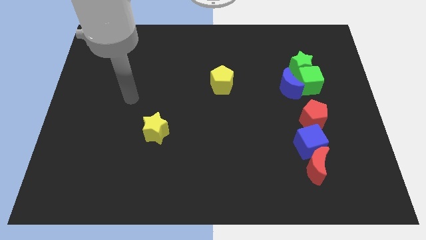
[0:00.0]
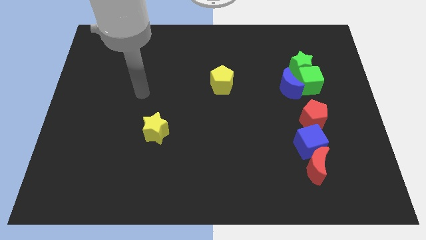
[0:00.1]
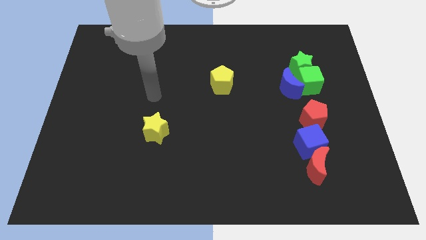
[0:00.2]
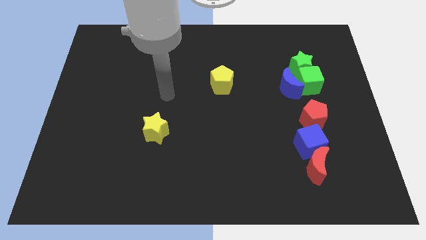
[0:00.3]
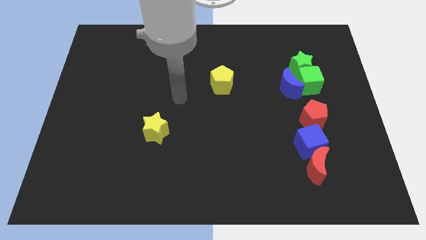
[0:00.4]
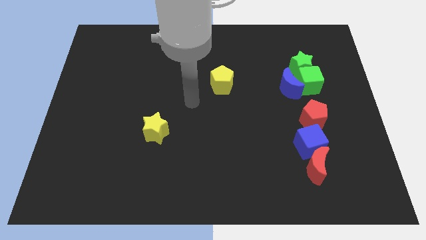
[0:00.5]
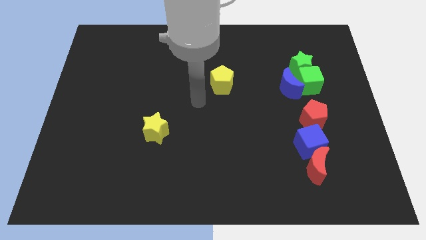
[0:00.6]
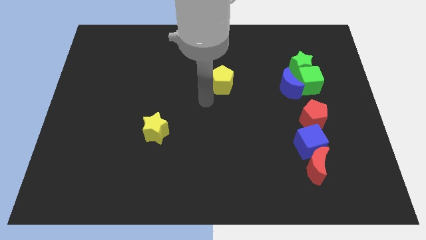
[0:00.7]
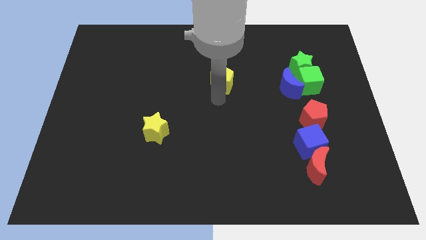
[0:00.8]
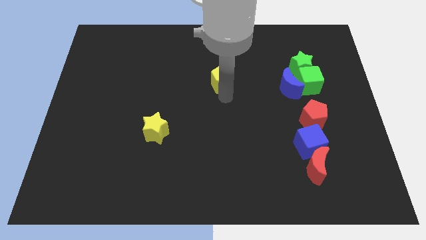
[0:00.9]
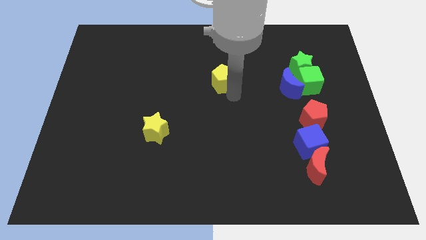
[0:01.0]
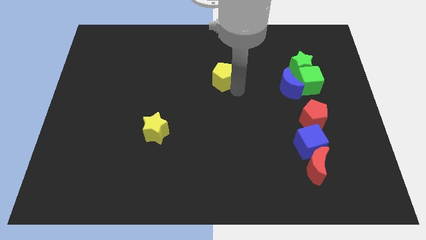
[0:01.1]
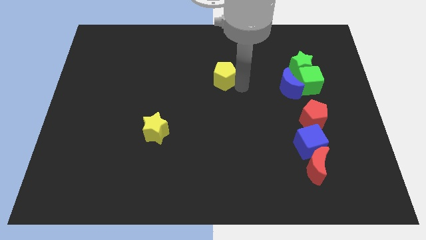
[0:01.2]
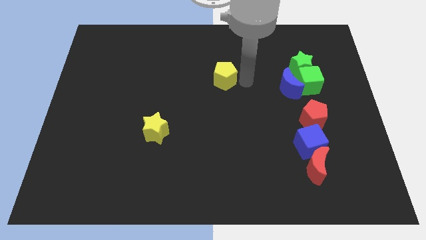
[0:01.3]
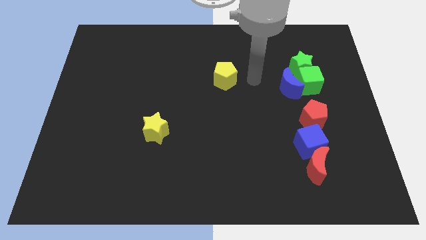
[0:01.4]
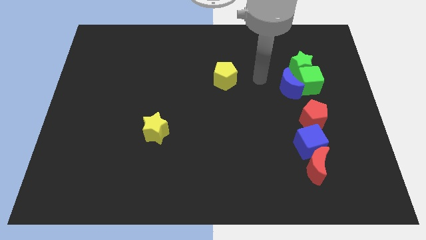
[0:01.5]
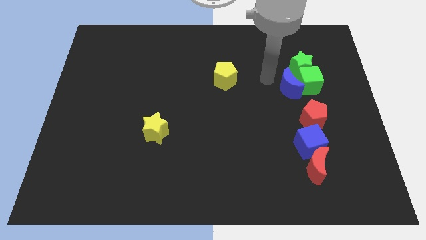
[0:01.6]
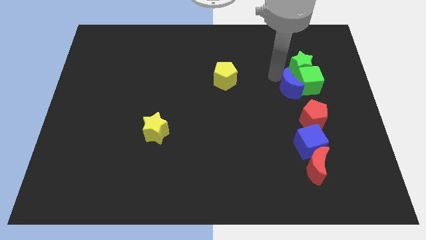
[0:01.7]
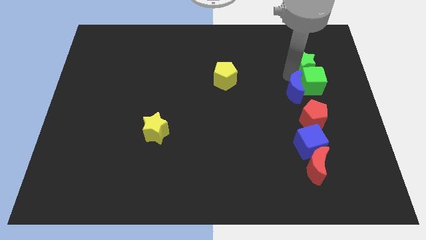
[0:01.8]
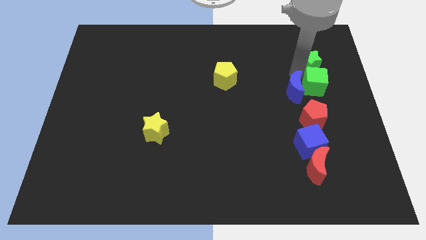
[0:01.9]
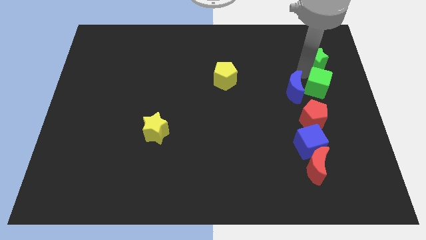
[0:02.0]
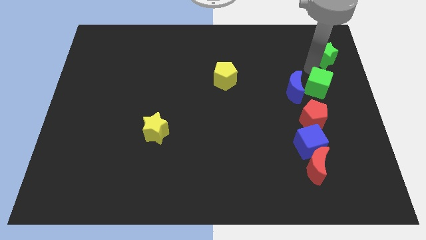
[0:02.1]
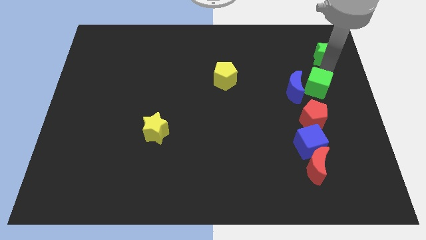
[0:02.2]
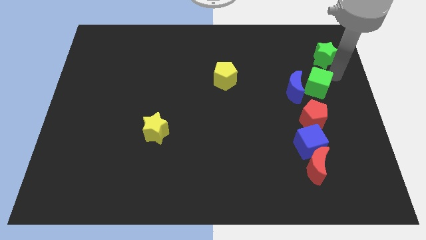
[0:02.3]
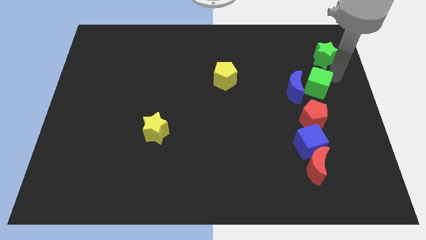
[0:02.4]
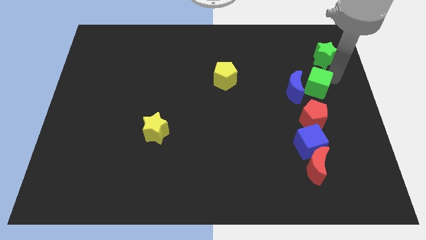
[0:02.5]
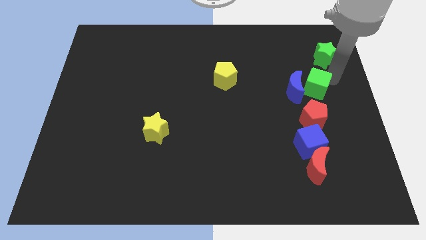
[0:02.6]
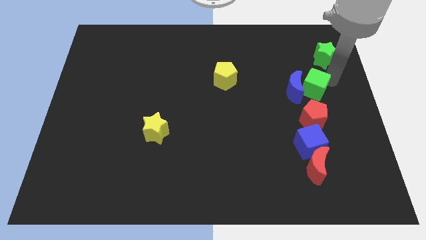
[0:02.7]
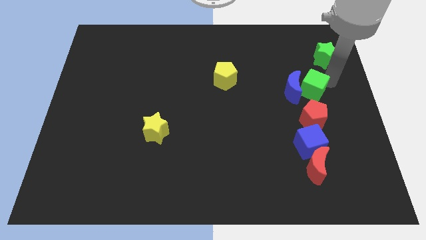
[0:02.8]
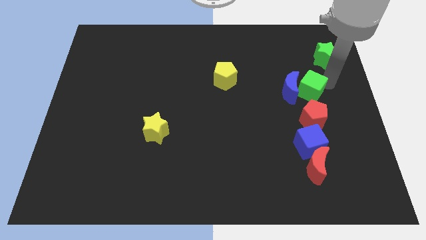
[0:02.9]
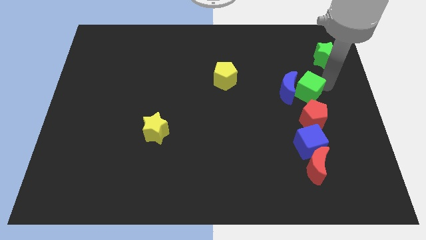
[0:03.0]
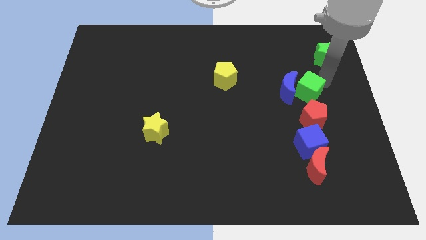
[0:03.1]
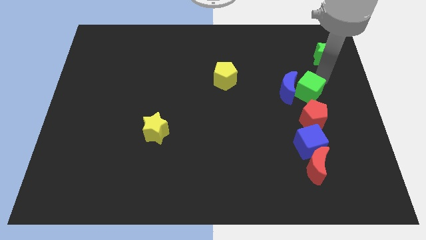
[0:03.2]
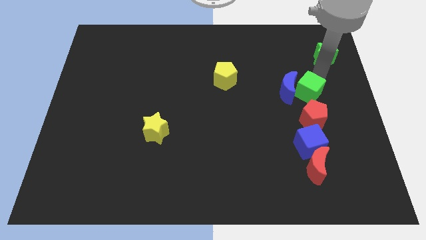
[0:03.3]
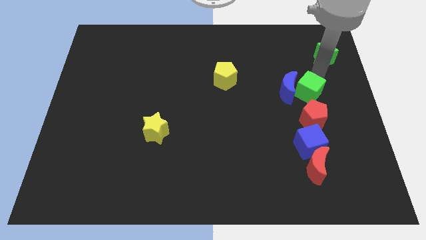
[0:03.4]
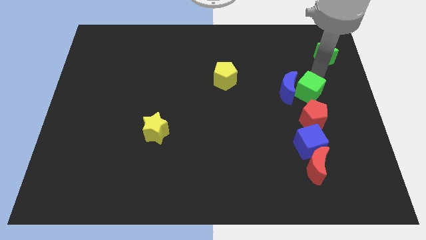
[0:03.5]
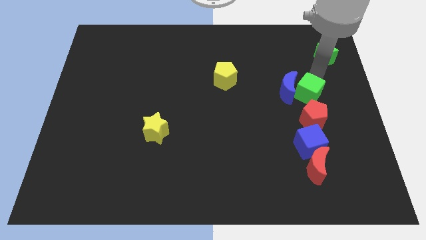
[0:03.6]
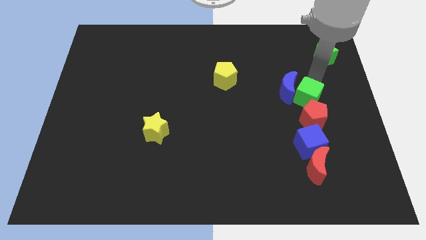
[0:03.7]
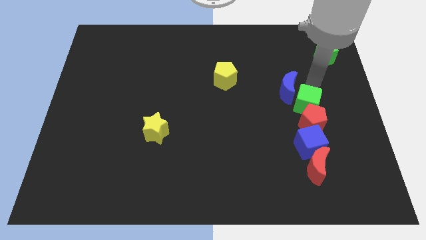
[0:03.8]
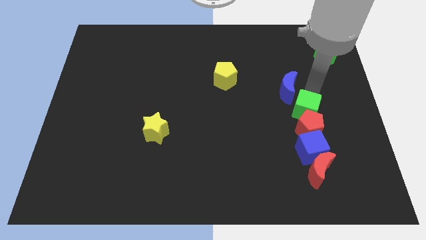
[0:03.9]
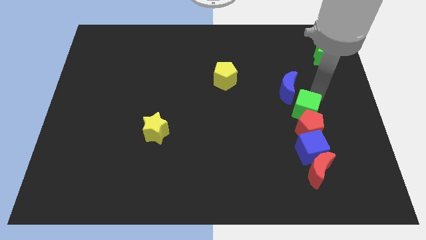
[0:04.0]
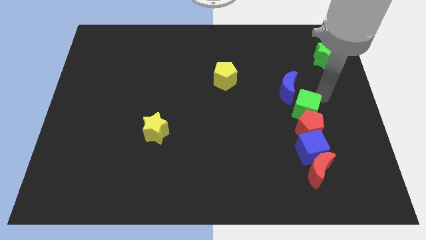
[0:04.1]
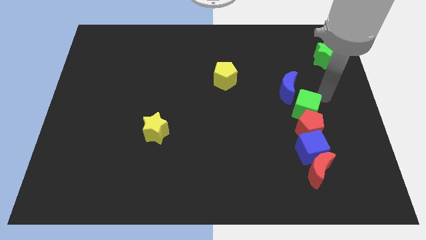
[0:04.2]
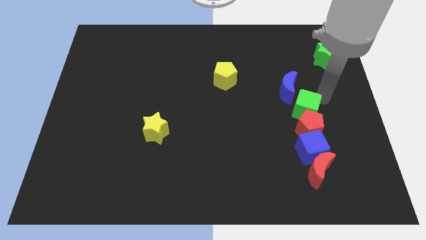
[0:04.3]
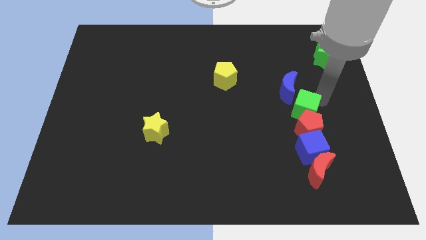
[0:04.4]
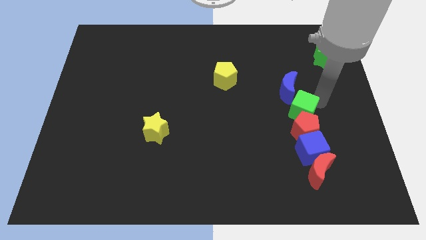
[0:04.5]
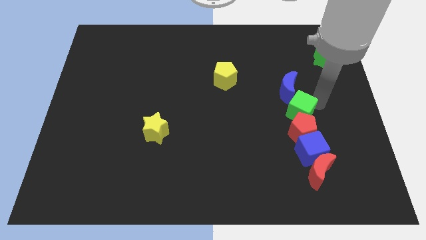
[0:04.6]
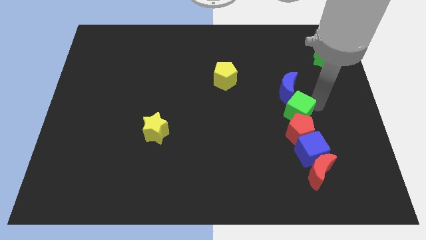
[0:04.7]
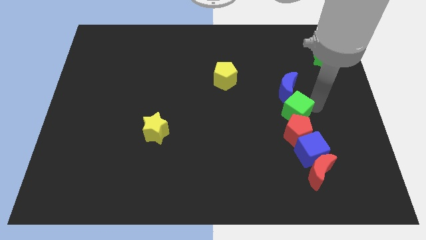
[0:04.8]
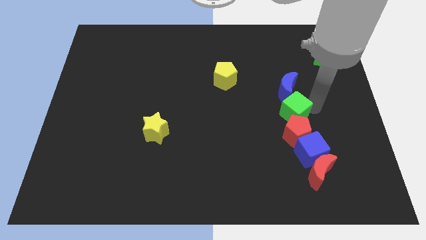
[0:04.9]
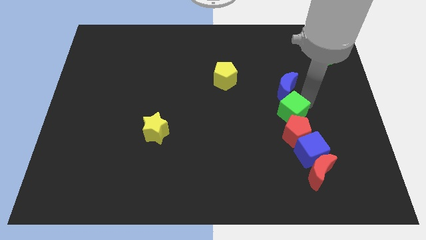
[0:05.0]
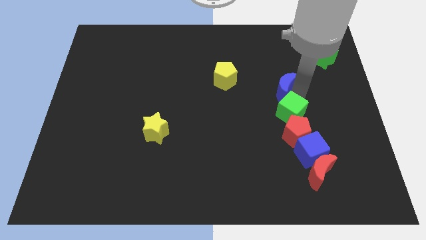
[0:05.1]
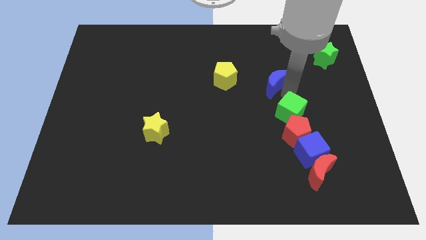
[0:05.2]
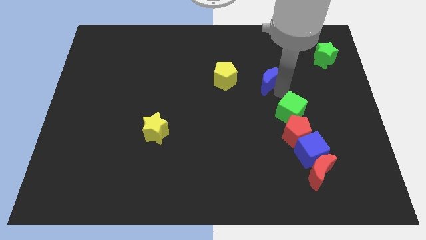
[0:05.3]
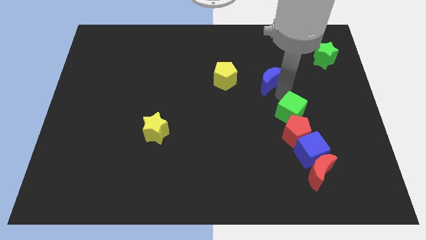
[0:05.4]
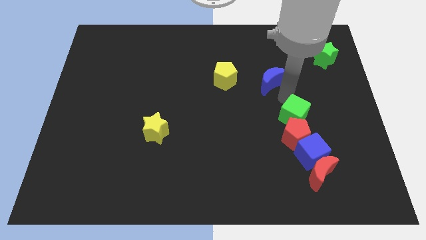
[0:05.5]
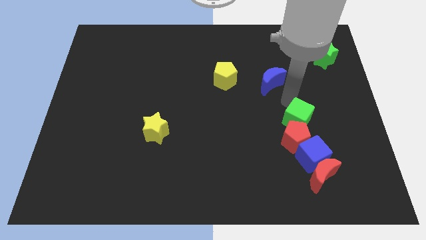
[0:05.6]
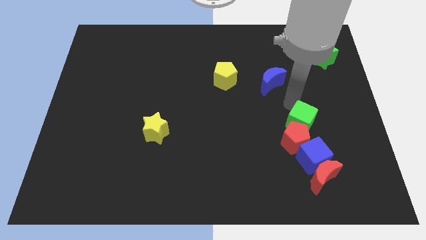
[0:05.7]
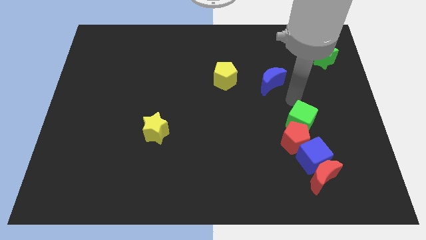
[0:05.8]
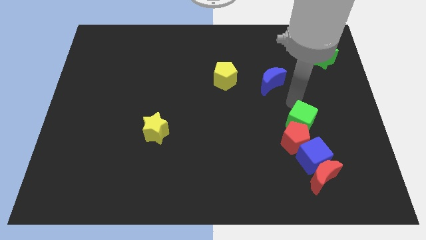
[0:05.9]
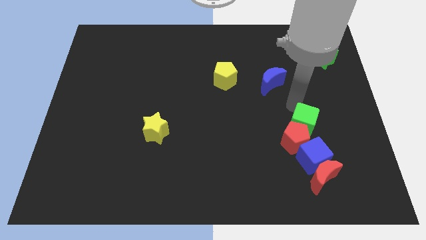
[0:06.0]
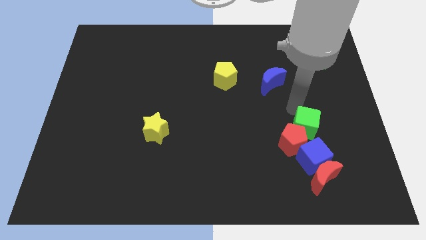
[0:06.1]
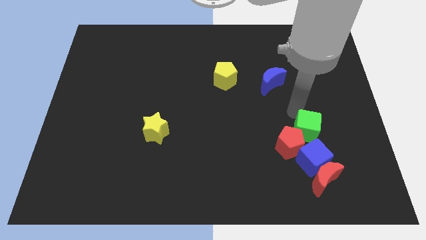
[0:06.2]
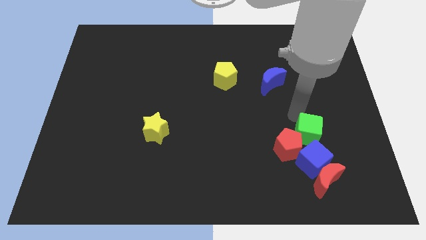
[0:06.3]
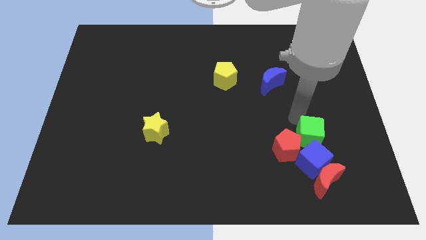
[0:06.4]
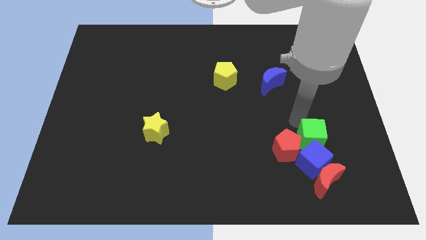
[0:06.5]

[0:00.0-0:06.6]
slide the green cube next to the blue cube

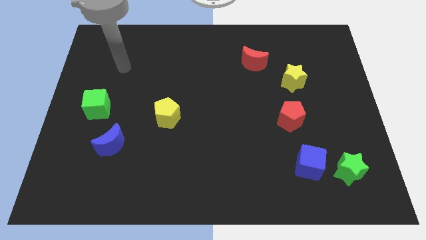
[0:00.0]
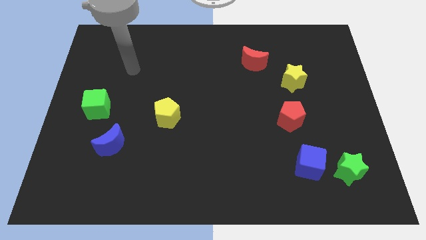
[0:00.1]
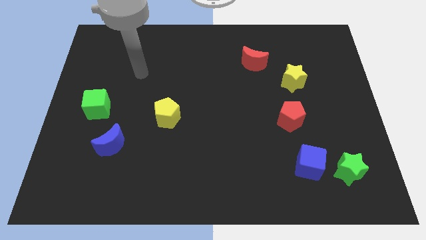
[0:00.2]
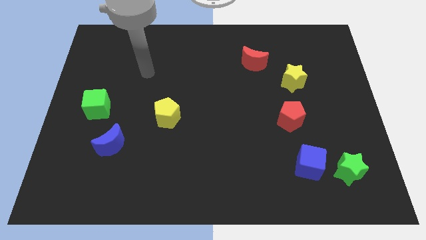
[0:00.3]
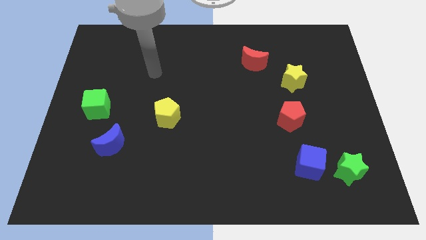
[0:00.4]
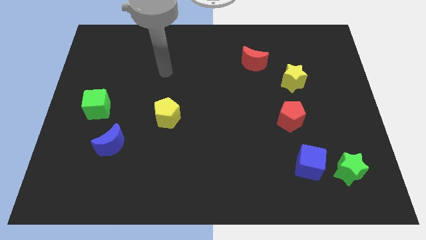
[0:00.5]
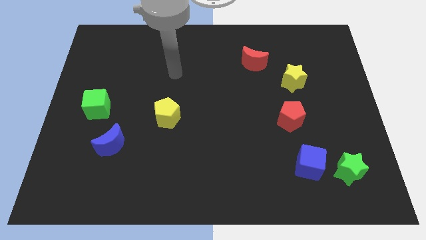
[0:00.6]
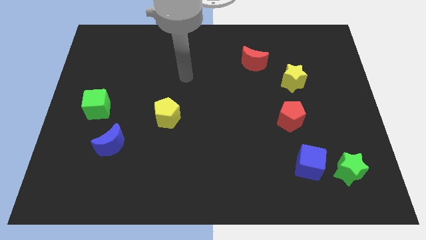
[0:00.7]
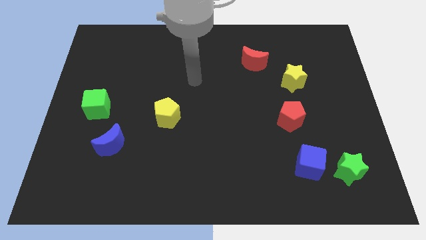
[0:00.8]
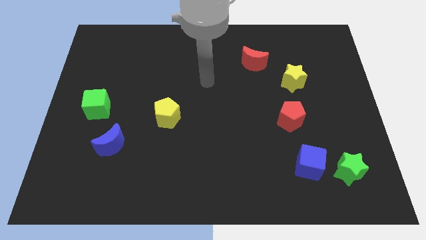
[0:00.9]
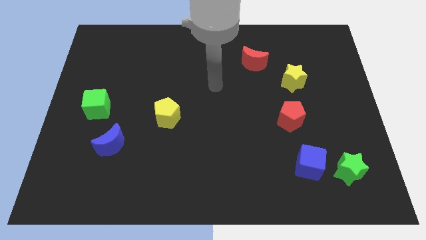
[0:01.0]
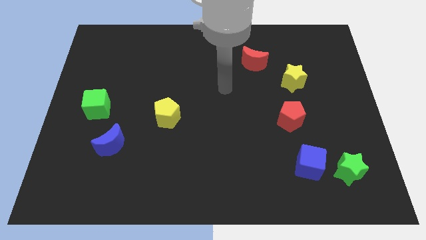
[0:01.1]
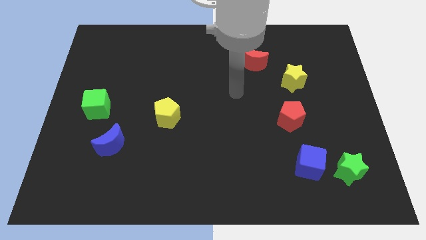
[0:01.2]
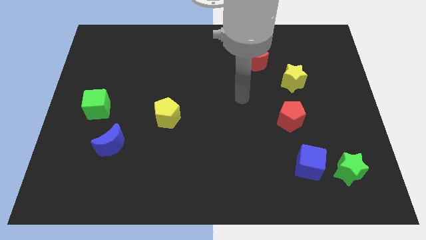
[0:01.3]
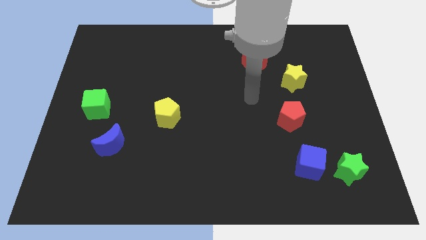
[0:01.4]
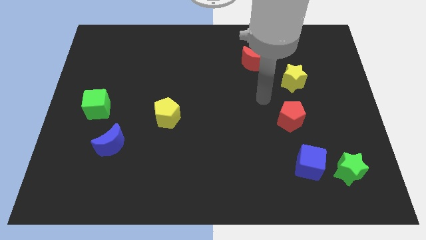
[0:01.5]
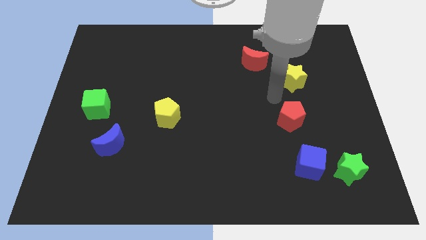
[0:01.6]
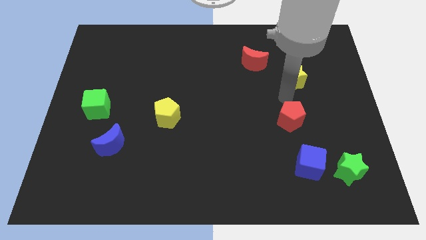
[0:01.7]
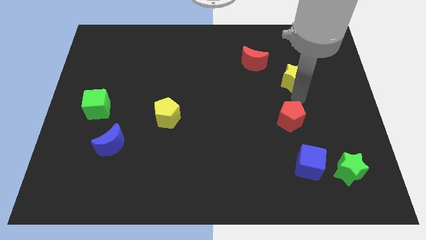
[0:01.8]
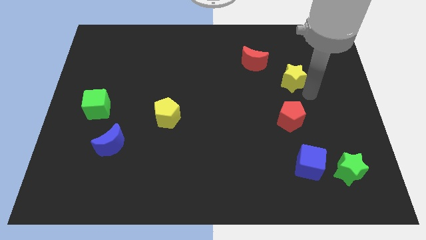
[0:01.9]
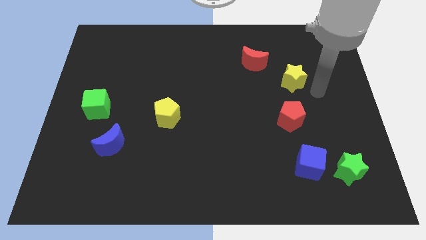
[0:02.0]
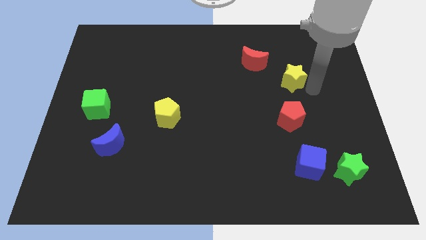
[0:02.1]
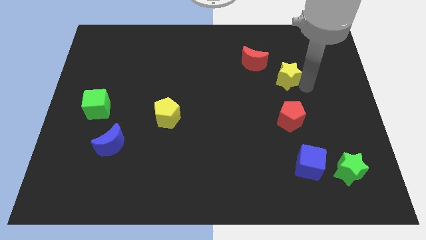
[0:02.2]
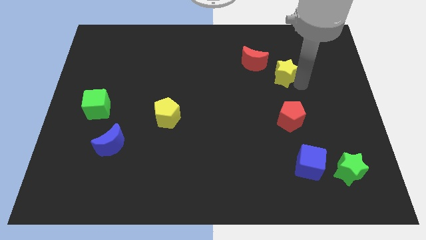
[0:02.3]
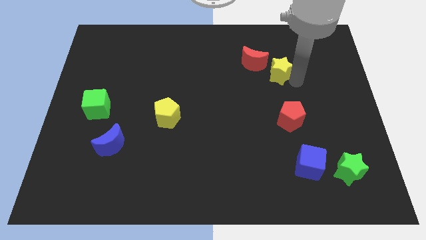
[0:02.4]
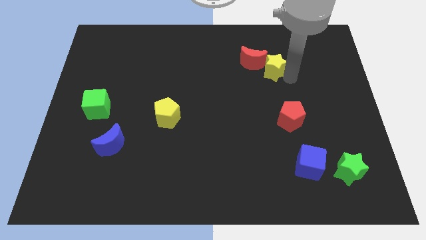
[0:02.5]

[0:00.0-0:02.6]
move the yellow star towards the red moon
